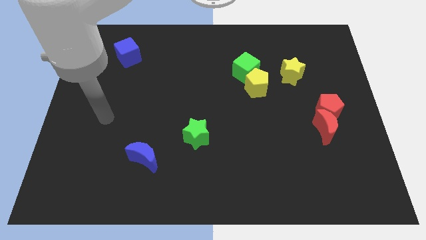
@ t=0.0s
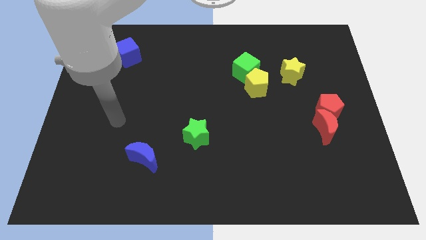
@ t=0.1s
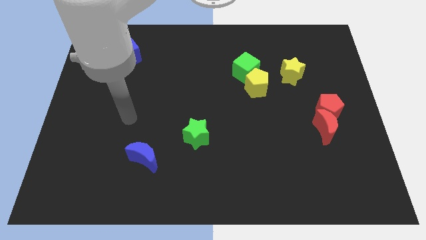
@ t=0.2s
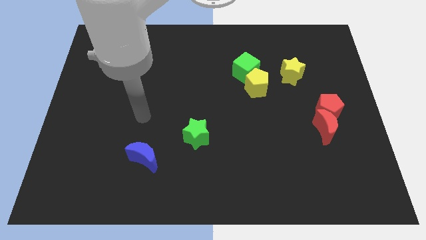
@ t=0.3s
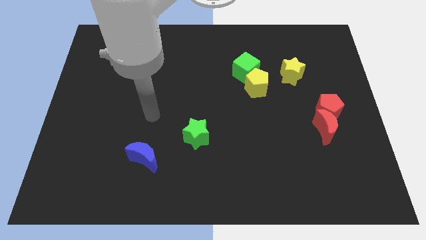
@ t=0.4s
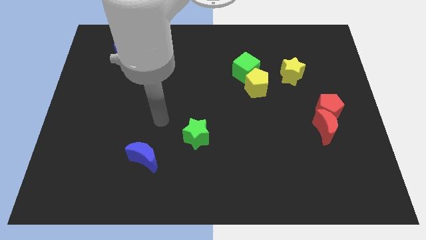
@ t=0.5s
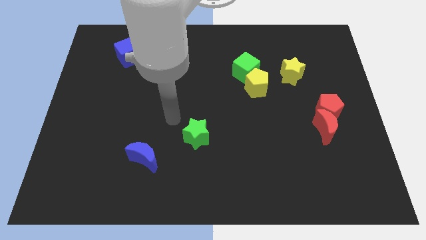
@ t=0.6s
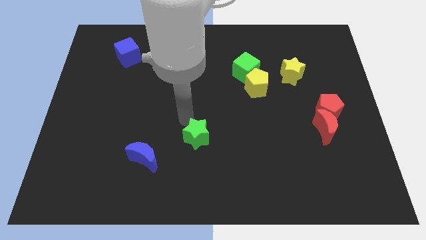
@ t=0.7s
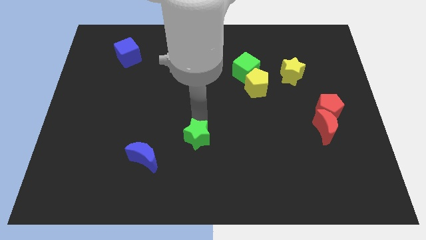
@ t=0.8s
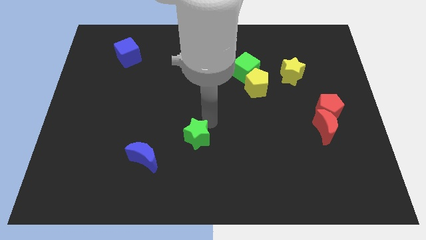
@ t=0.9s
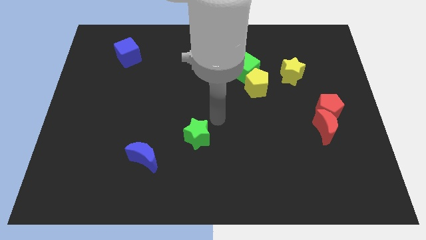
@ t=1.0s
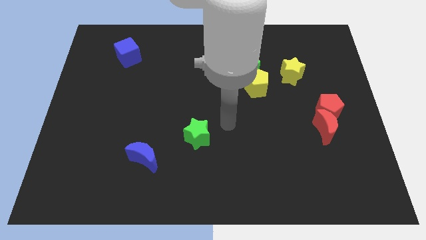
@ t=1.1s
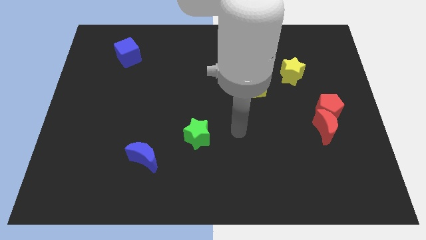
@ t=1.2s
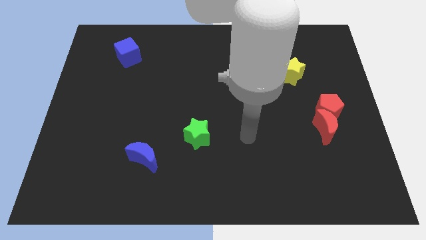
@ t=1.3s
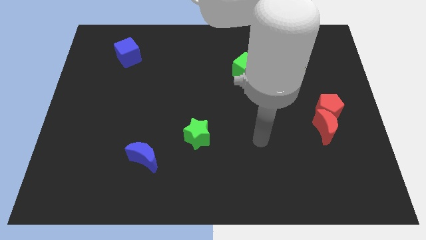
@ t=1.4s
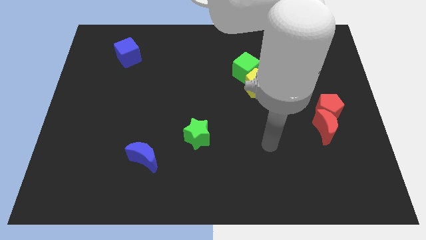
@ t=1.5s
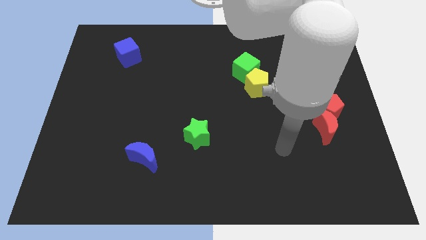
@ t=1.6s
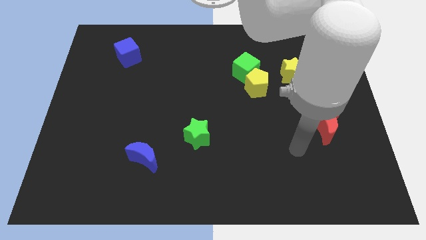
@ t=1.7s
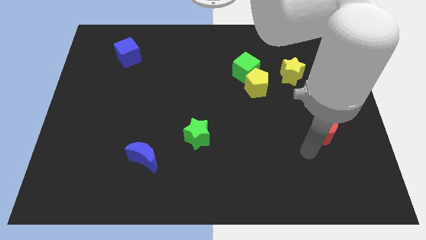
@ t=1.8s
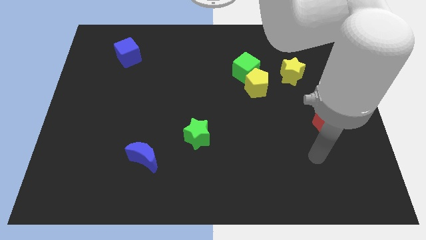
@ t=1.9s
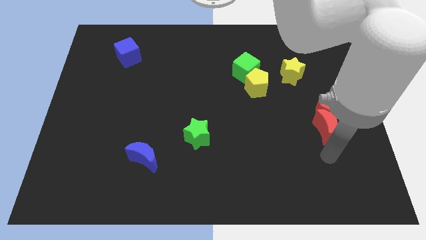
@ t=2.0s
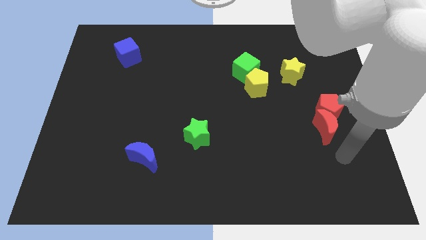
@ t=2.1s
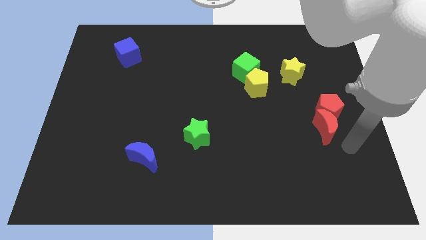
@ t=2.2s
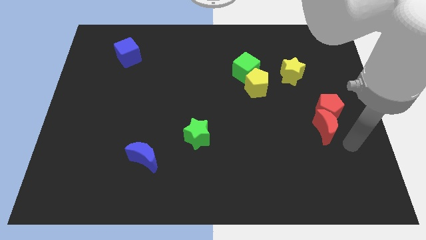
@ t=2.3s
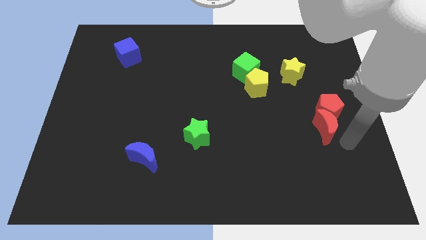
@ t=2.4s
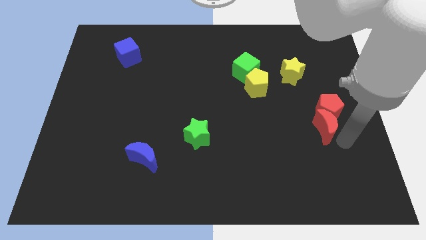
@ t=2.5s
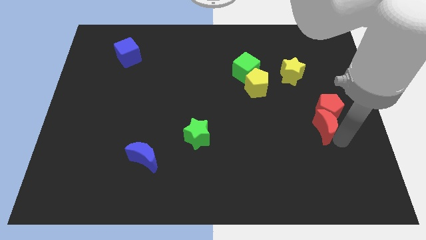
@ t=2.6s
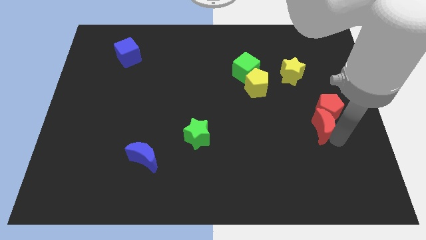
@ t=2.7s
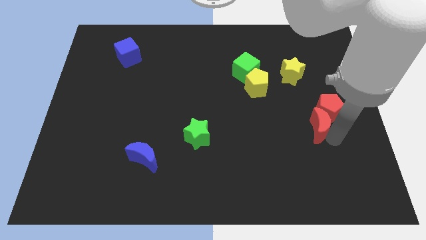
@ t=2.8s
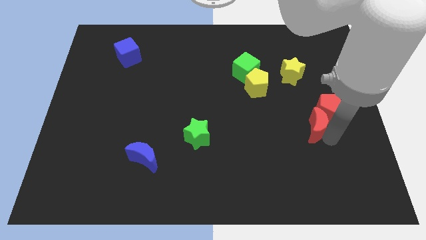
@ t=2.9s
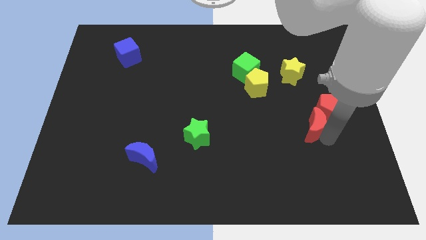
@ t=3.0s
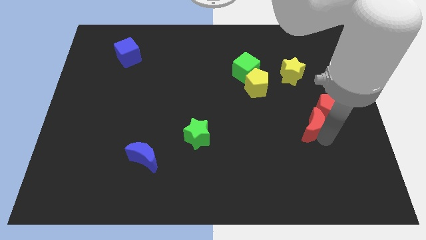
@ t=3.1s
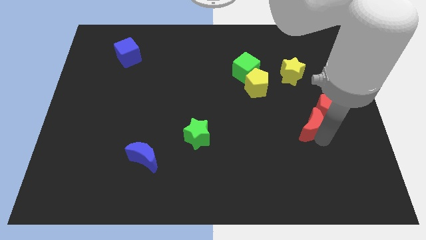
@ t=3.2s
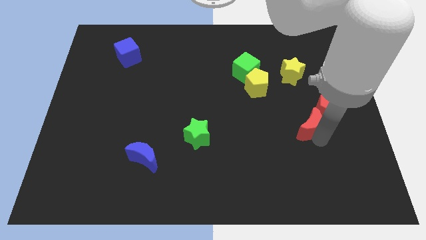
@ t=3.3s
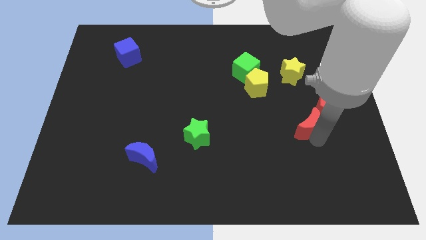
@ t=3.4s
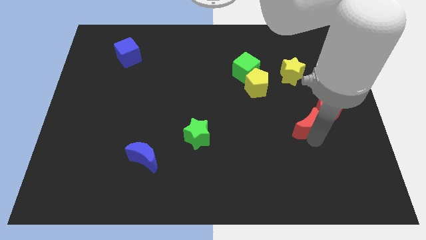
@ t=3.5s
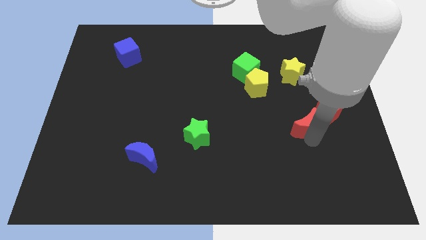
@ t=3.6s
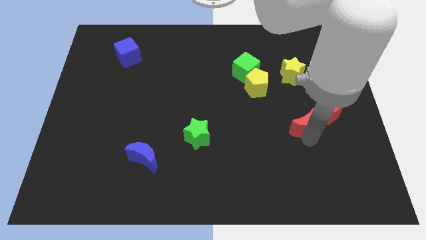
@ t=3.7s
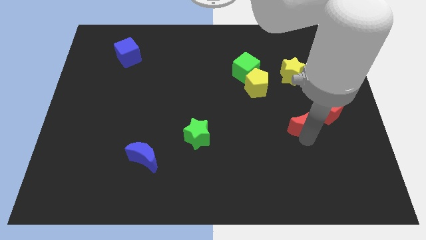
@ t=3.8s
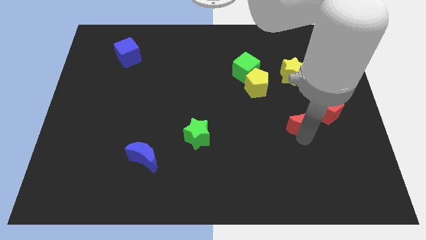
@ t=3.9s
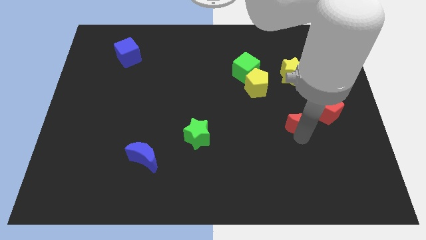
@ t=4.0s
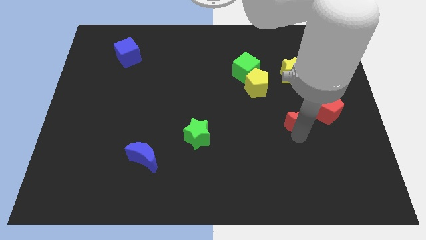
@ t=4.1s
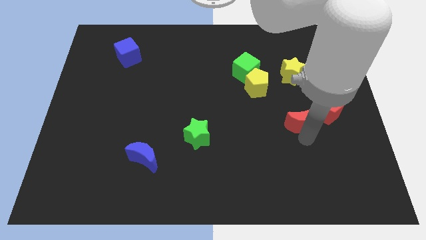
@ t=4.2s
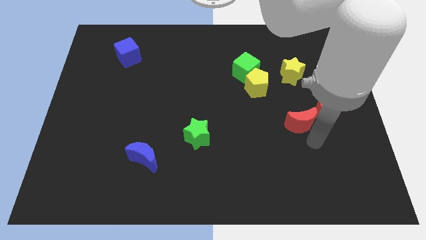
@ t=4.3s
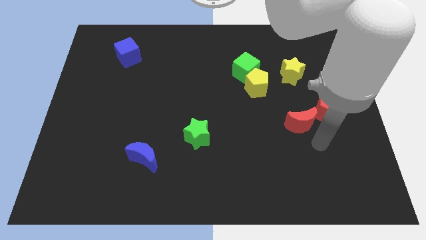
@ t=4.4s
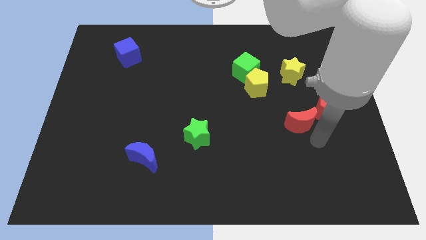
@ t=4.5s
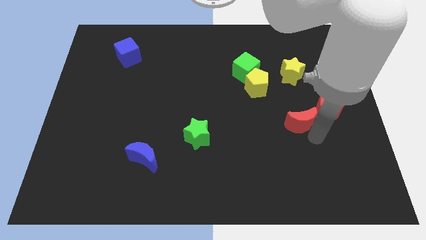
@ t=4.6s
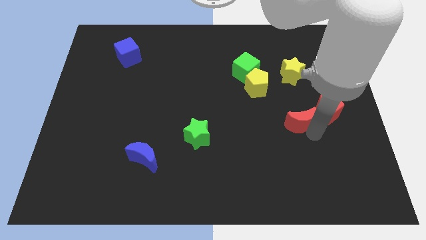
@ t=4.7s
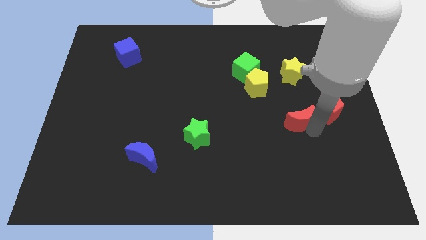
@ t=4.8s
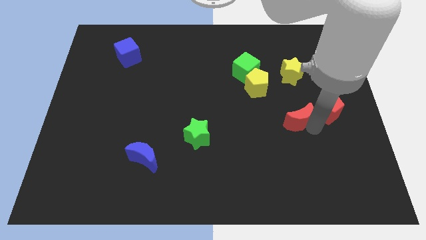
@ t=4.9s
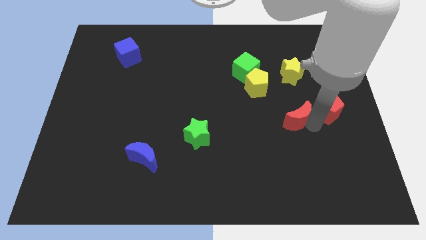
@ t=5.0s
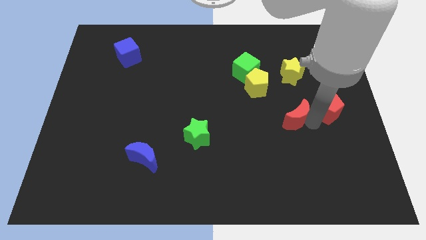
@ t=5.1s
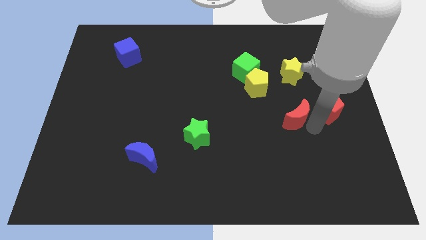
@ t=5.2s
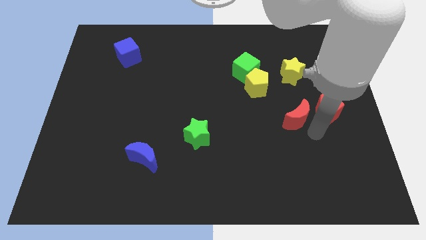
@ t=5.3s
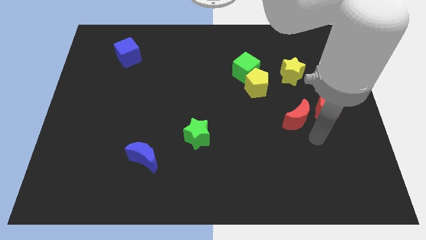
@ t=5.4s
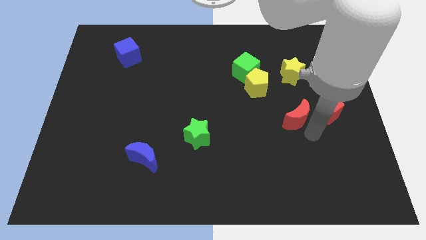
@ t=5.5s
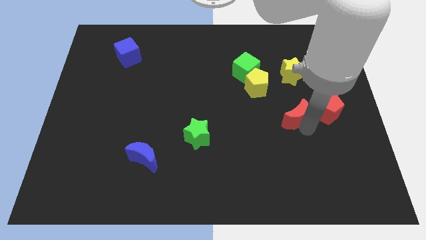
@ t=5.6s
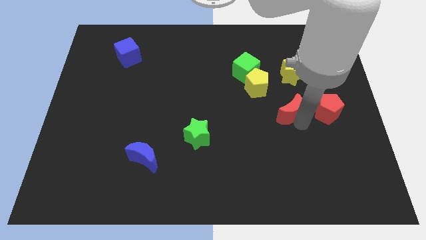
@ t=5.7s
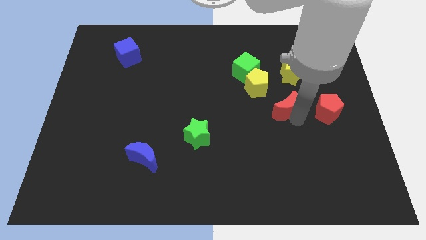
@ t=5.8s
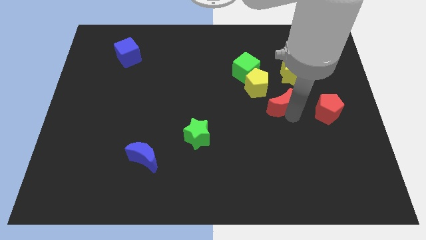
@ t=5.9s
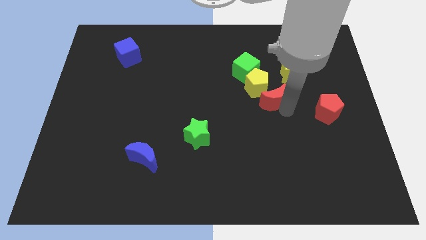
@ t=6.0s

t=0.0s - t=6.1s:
move the red moon close to the yellow pentagon

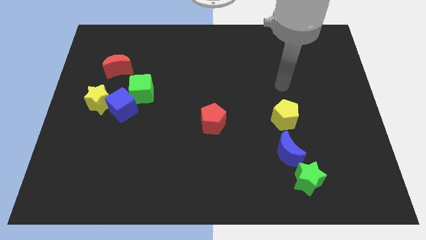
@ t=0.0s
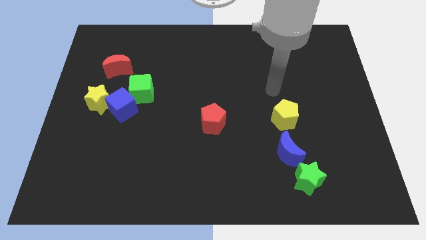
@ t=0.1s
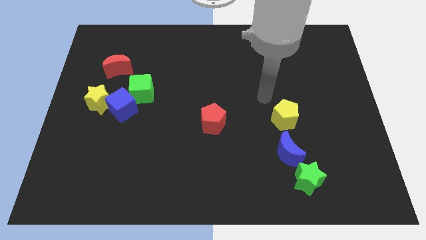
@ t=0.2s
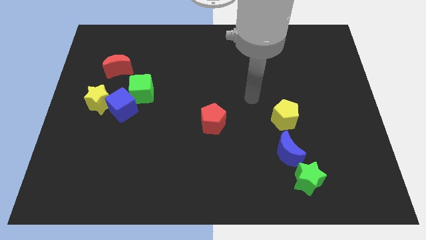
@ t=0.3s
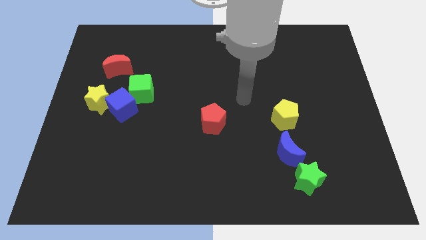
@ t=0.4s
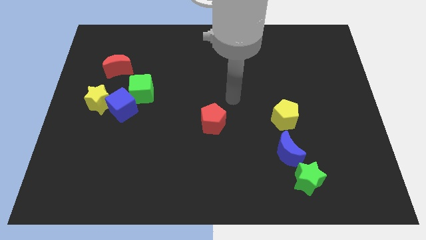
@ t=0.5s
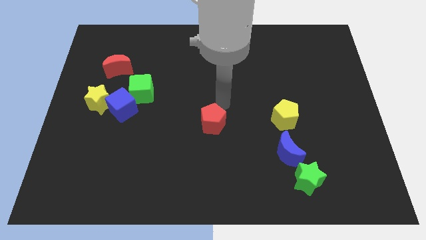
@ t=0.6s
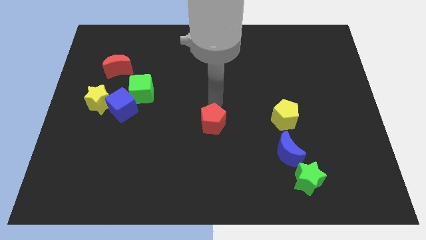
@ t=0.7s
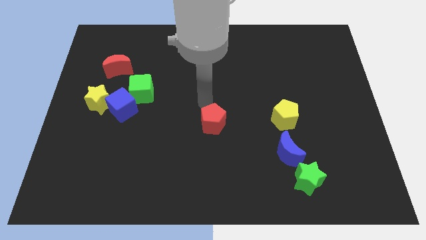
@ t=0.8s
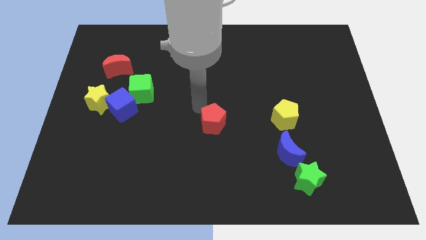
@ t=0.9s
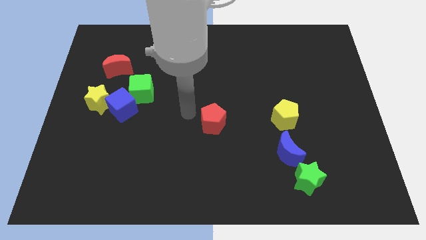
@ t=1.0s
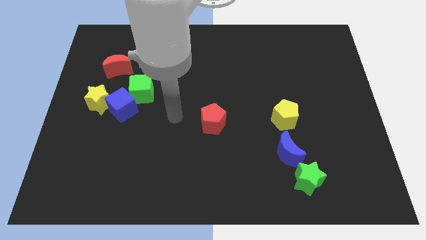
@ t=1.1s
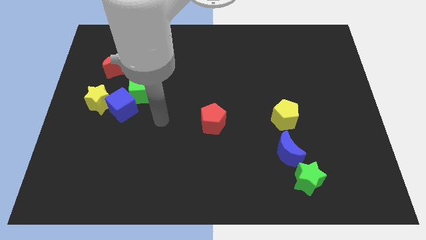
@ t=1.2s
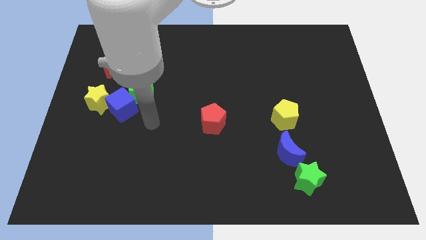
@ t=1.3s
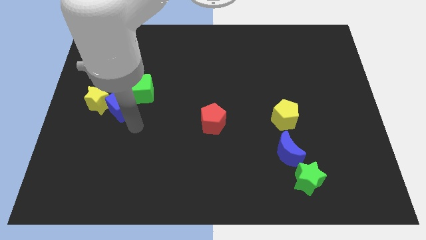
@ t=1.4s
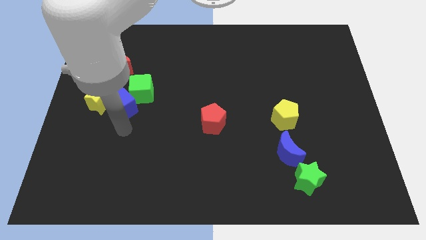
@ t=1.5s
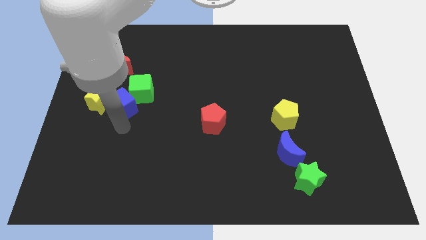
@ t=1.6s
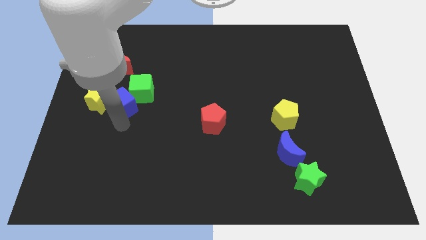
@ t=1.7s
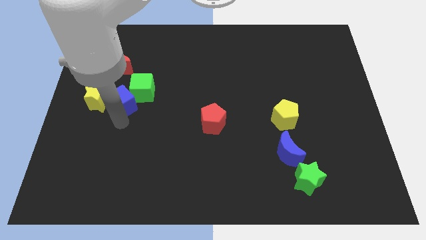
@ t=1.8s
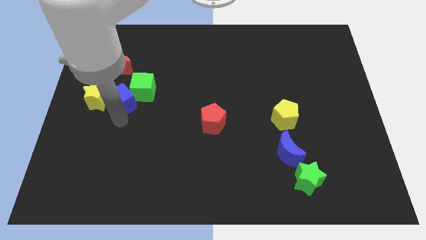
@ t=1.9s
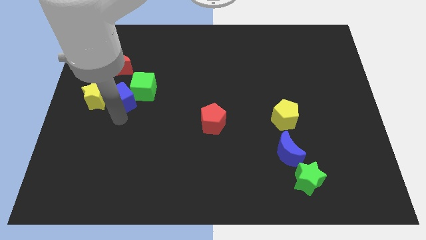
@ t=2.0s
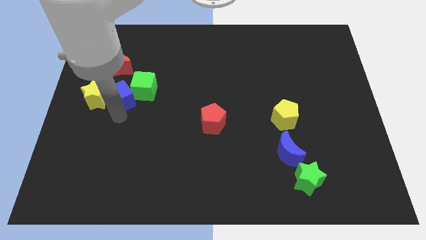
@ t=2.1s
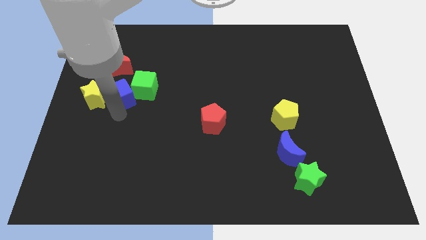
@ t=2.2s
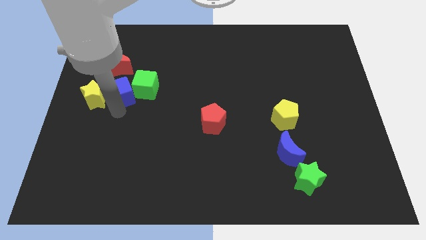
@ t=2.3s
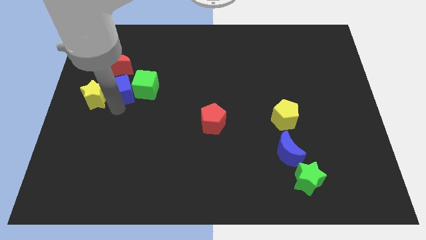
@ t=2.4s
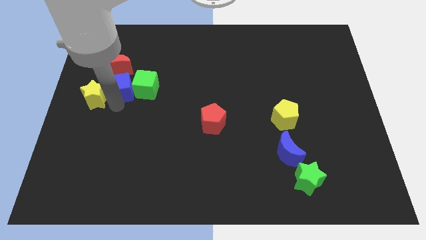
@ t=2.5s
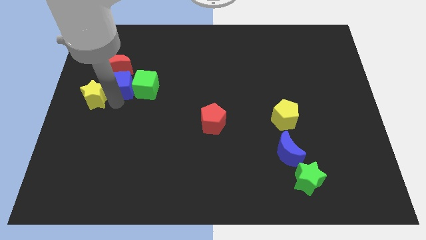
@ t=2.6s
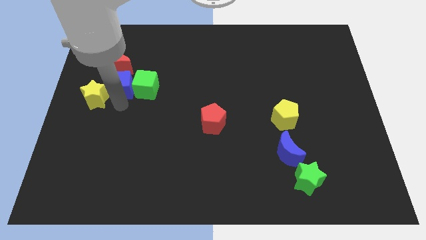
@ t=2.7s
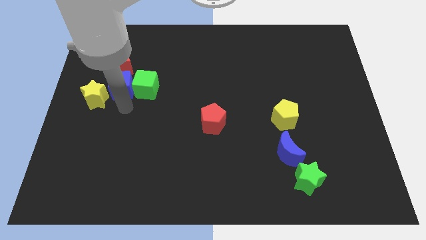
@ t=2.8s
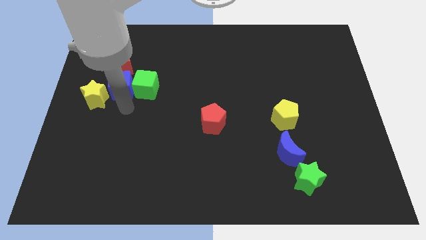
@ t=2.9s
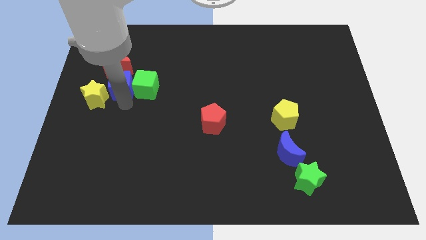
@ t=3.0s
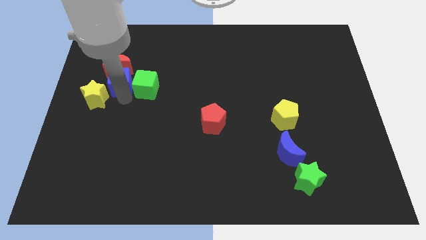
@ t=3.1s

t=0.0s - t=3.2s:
slide the blue cube next to the red moon
